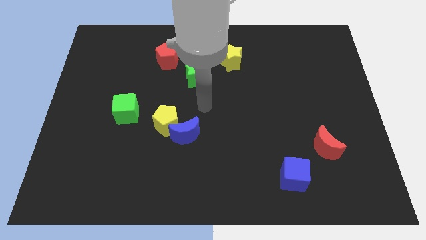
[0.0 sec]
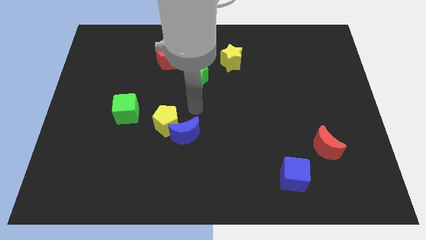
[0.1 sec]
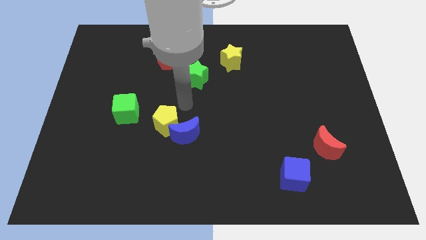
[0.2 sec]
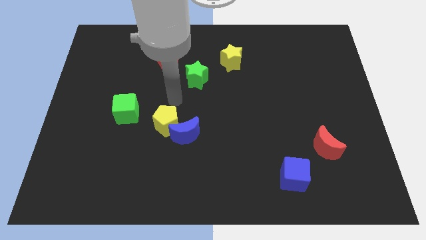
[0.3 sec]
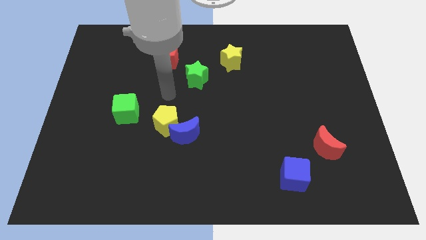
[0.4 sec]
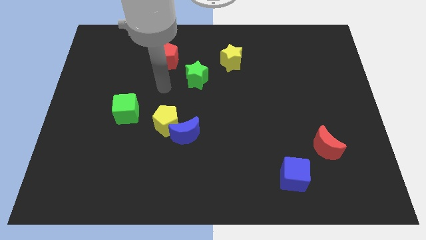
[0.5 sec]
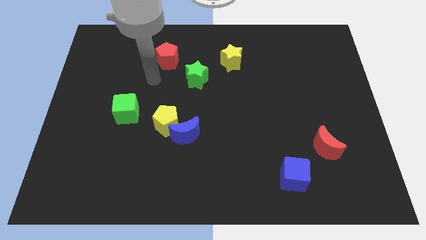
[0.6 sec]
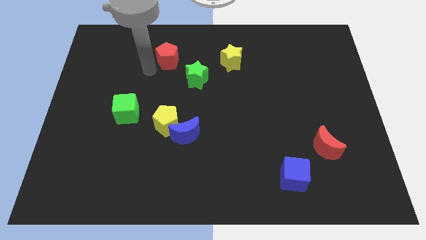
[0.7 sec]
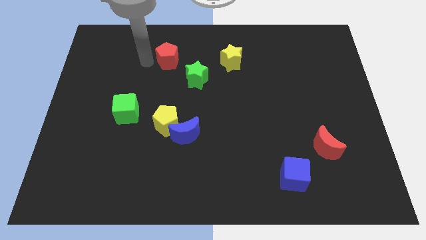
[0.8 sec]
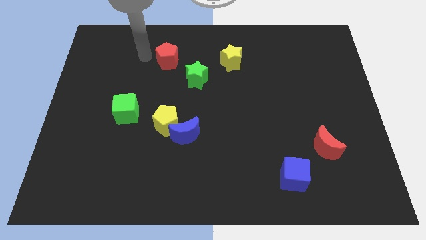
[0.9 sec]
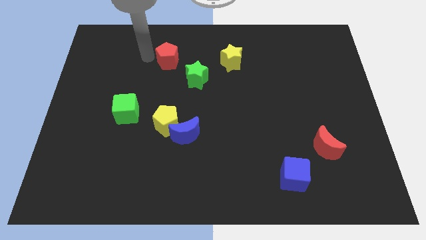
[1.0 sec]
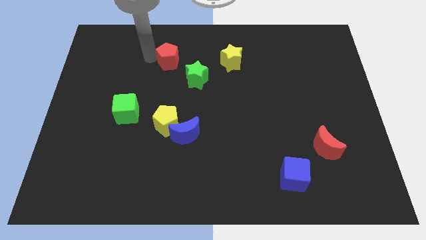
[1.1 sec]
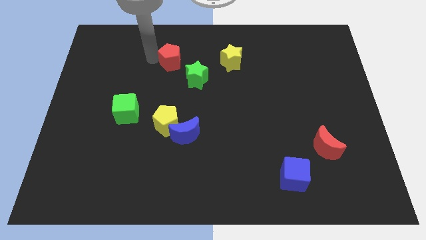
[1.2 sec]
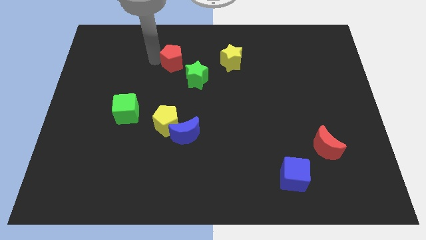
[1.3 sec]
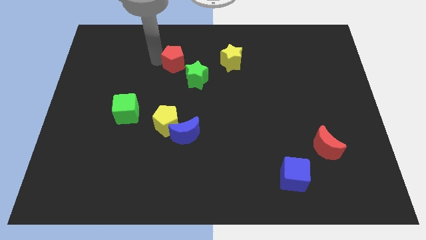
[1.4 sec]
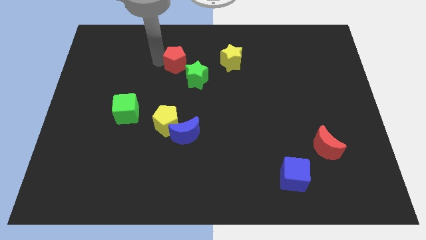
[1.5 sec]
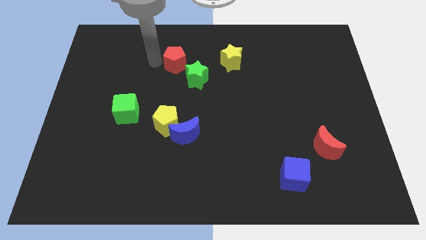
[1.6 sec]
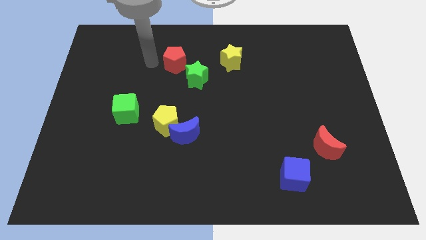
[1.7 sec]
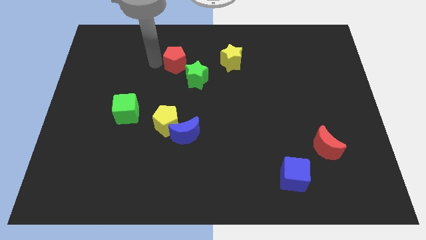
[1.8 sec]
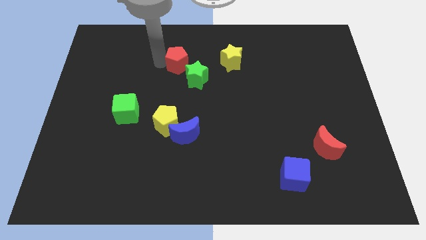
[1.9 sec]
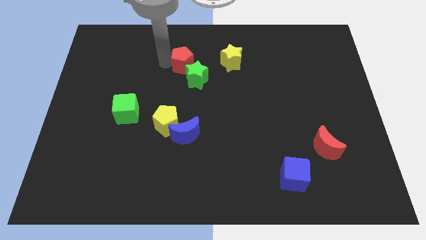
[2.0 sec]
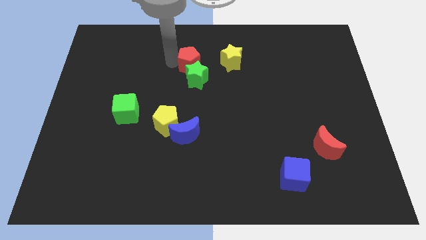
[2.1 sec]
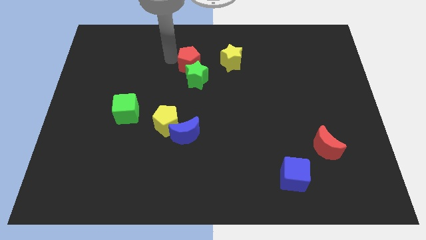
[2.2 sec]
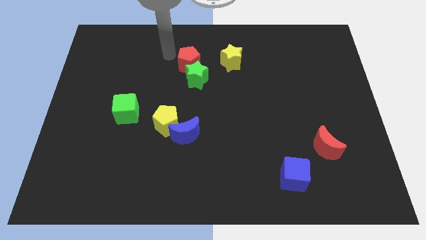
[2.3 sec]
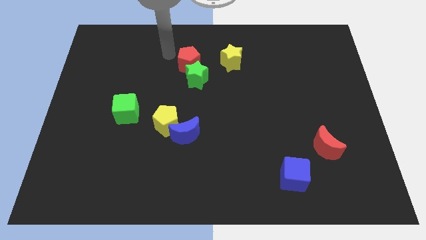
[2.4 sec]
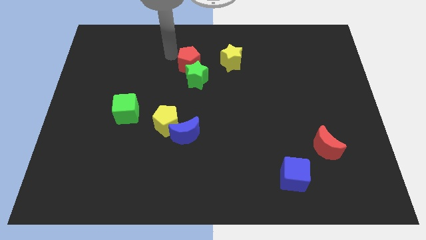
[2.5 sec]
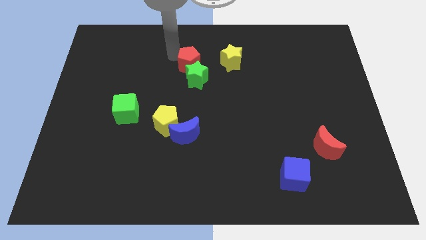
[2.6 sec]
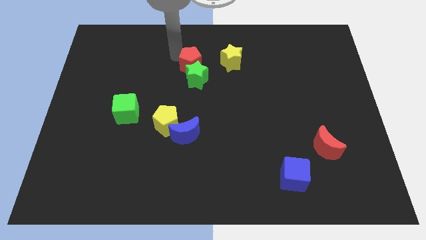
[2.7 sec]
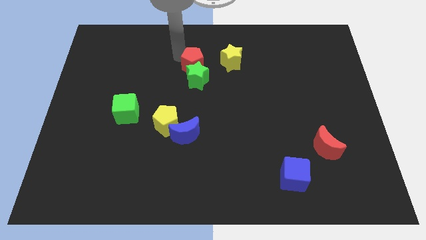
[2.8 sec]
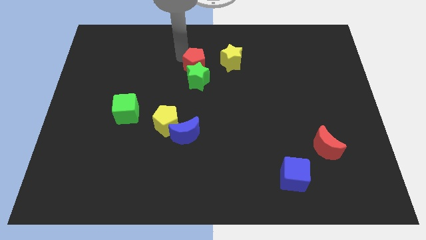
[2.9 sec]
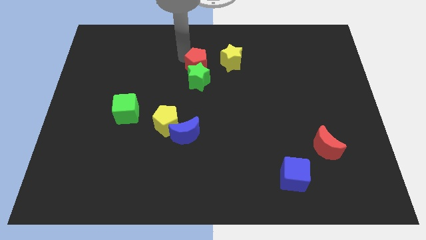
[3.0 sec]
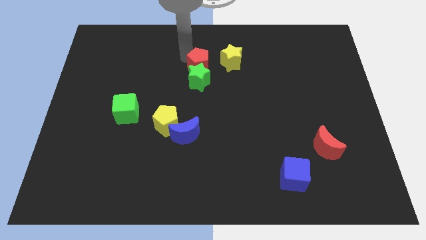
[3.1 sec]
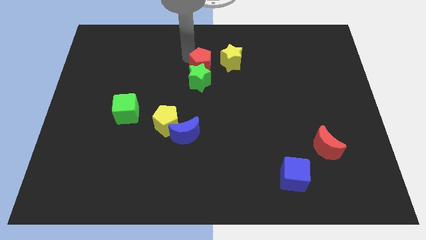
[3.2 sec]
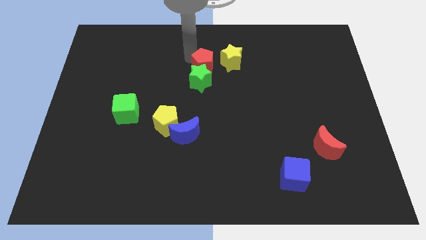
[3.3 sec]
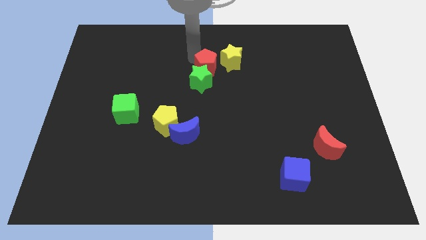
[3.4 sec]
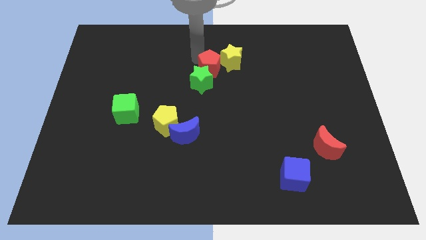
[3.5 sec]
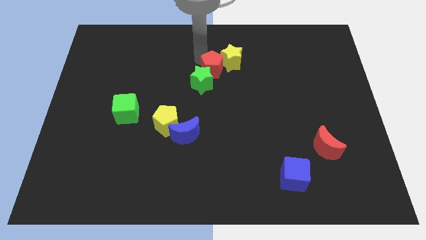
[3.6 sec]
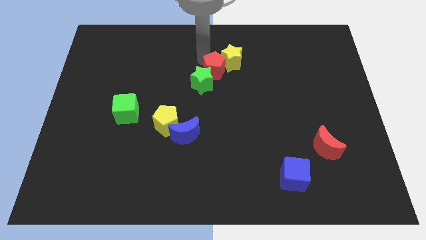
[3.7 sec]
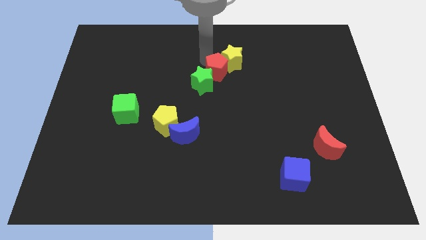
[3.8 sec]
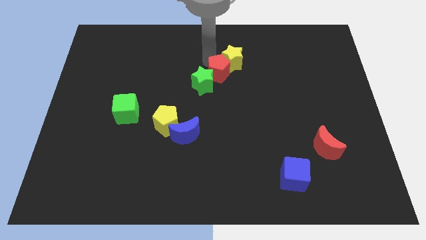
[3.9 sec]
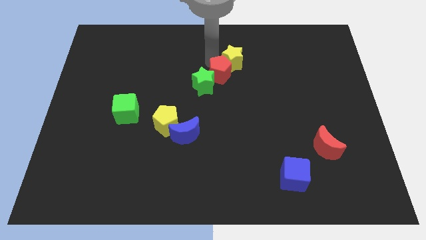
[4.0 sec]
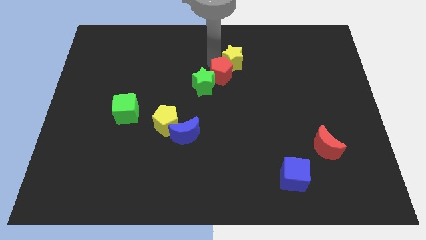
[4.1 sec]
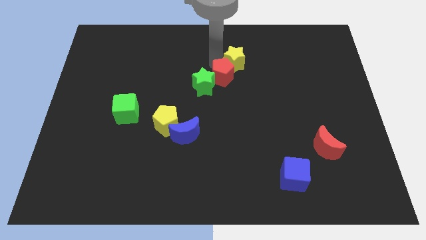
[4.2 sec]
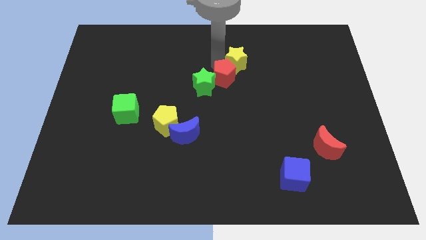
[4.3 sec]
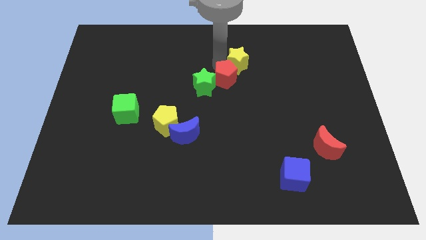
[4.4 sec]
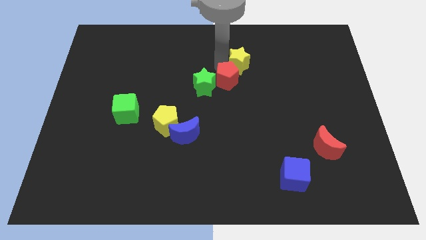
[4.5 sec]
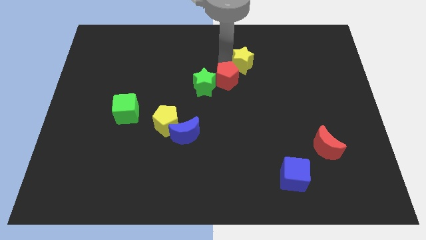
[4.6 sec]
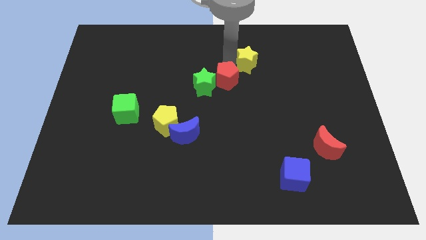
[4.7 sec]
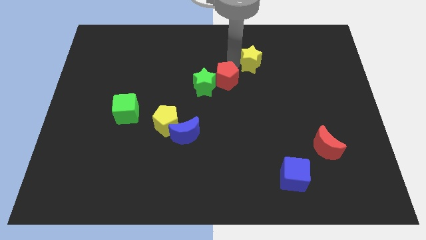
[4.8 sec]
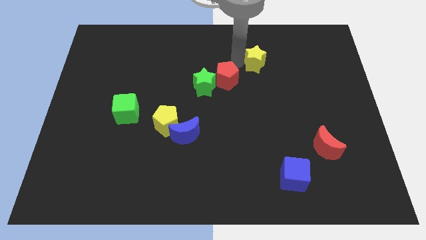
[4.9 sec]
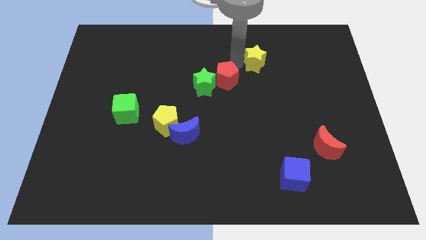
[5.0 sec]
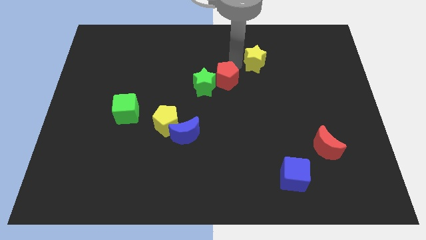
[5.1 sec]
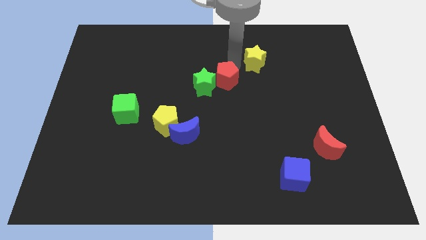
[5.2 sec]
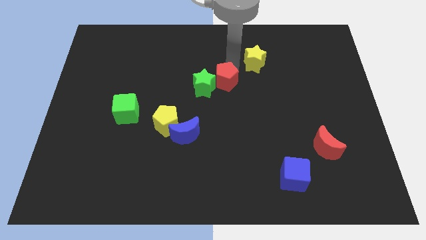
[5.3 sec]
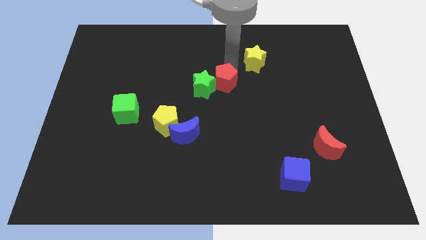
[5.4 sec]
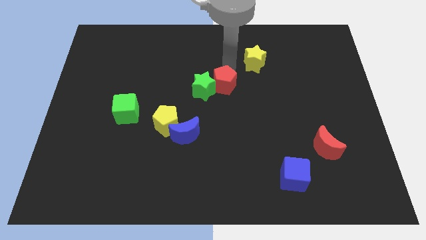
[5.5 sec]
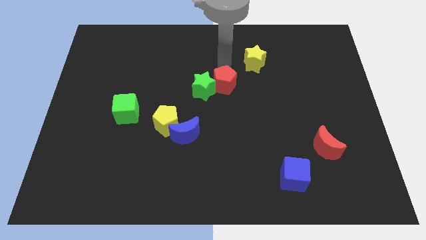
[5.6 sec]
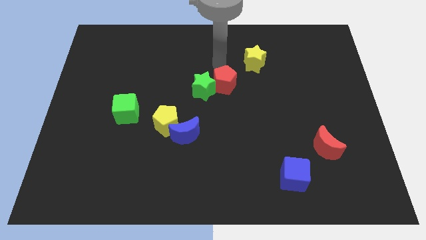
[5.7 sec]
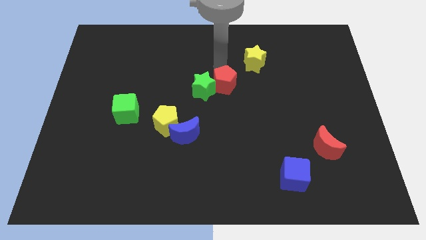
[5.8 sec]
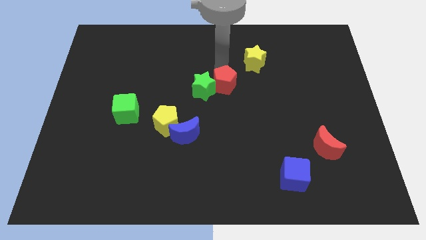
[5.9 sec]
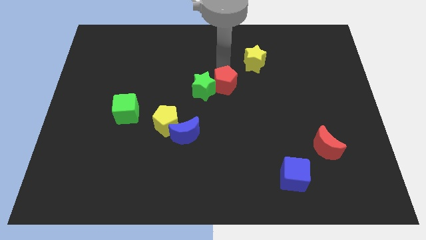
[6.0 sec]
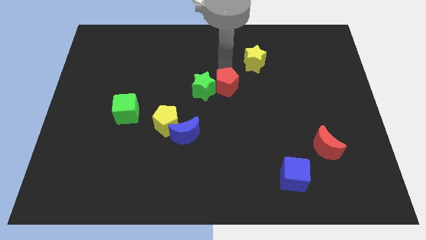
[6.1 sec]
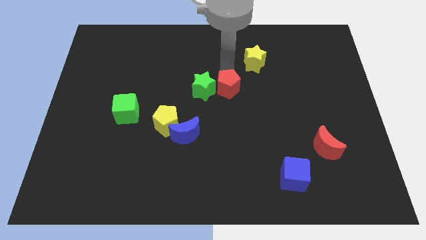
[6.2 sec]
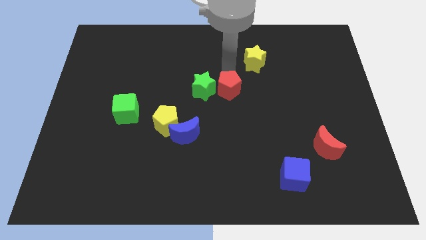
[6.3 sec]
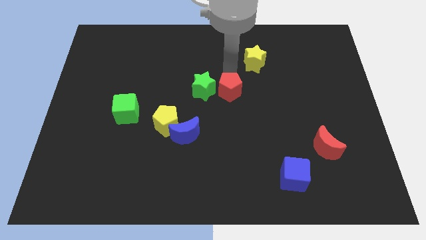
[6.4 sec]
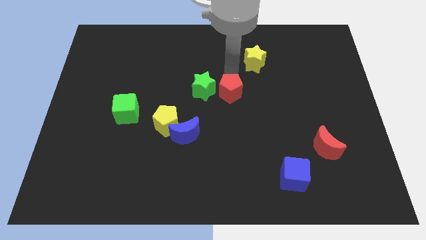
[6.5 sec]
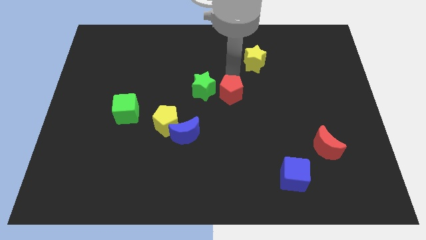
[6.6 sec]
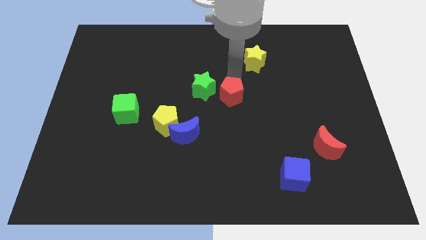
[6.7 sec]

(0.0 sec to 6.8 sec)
push the red pentagon down and to the right diagonally

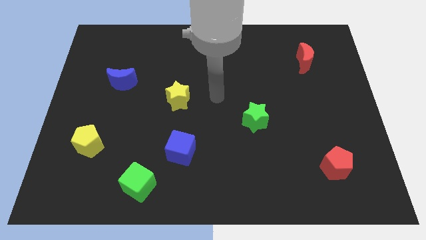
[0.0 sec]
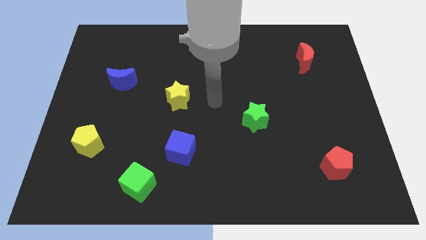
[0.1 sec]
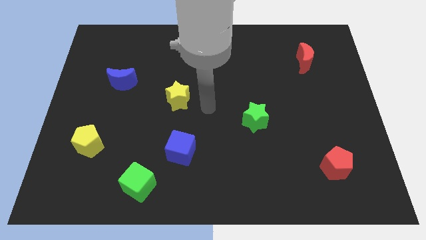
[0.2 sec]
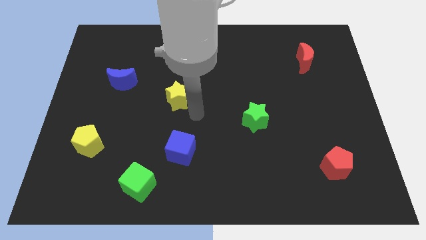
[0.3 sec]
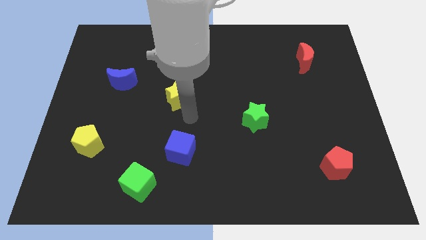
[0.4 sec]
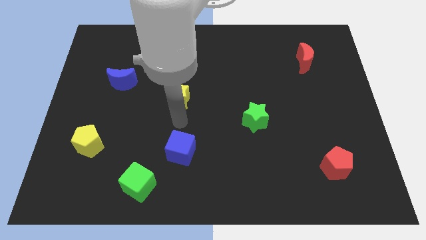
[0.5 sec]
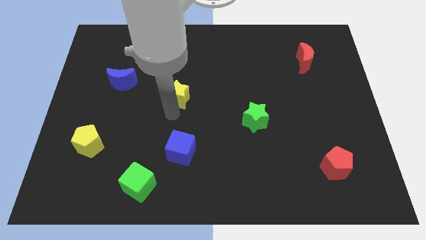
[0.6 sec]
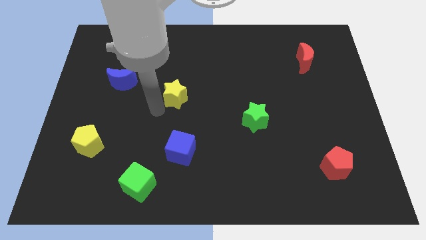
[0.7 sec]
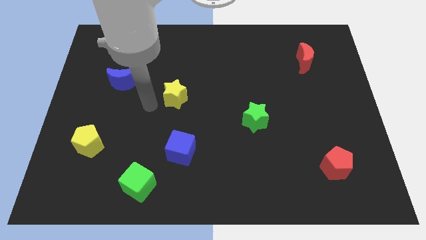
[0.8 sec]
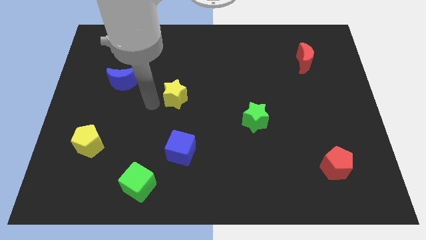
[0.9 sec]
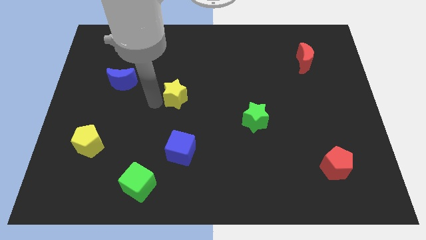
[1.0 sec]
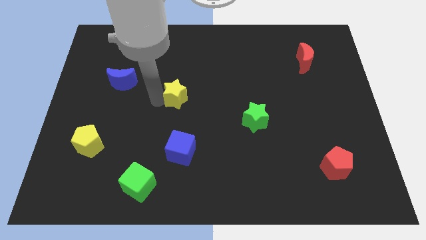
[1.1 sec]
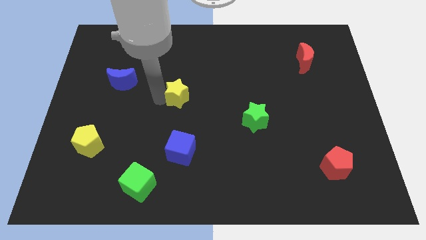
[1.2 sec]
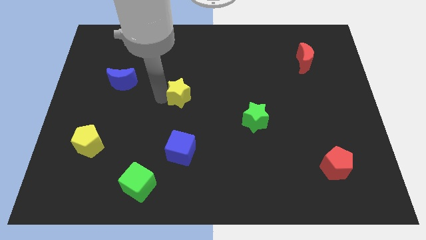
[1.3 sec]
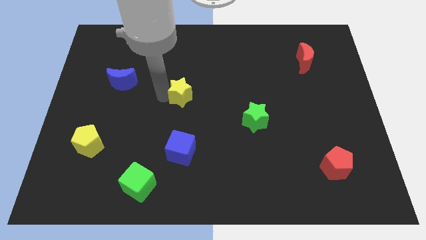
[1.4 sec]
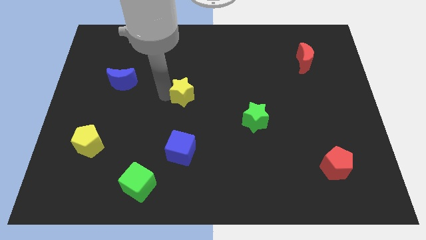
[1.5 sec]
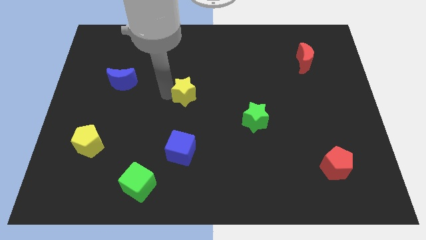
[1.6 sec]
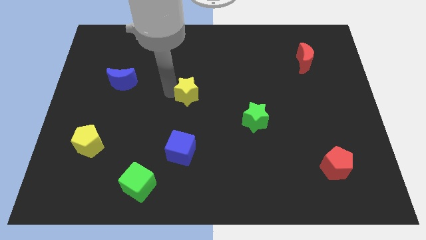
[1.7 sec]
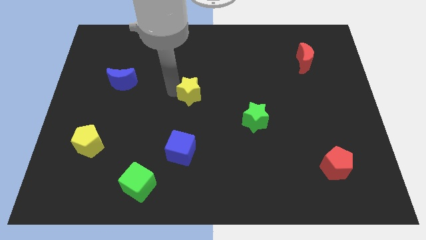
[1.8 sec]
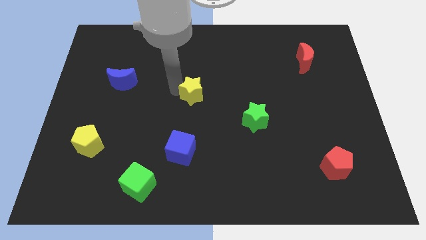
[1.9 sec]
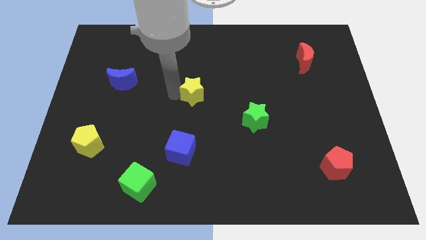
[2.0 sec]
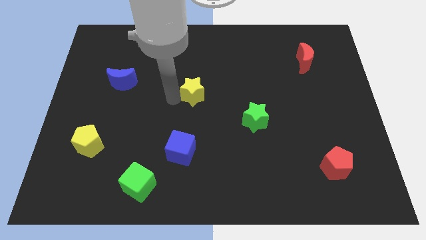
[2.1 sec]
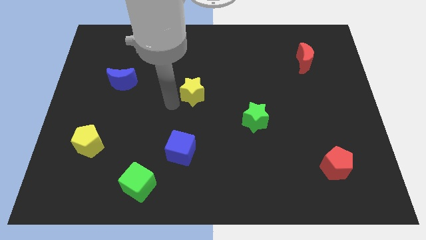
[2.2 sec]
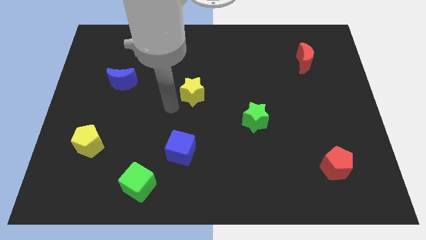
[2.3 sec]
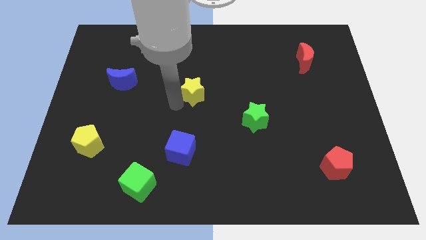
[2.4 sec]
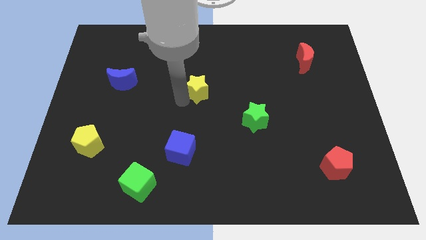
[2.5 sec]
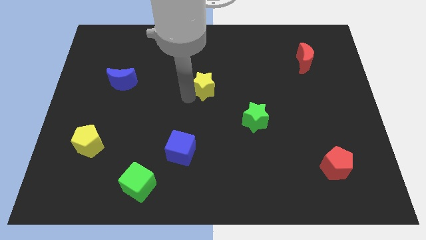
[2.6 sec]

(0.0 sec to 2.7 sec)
slide the yellow star a bit diagonally upwards and to the right
